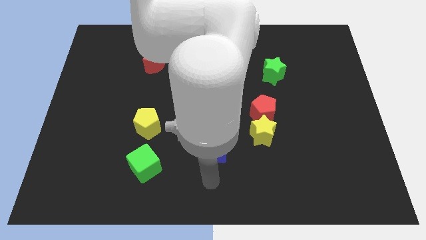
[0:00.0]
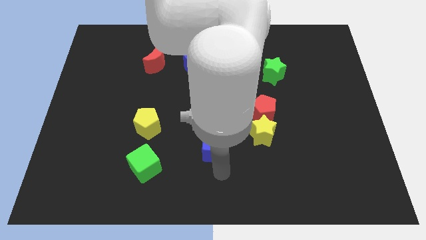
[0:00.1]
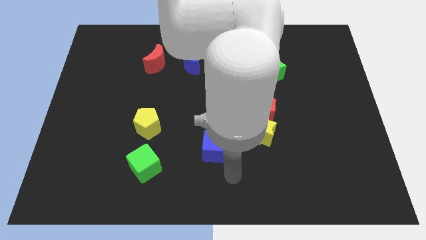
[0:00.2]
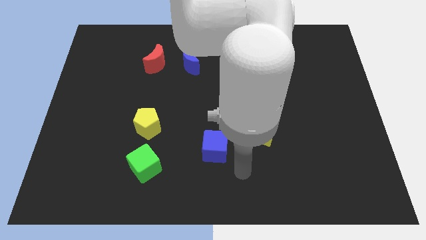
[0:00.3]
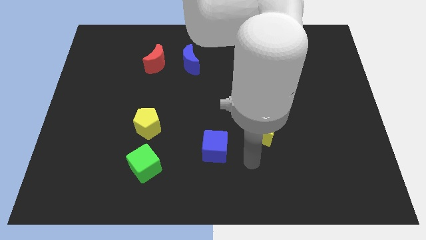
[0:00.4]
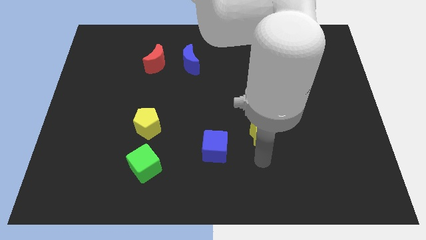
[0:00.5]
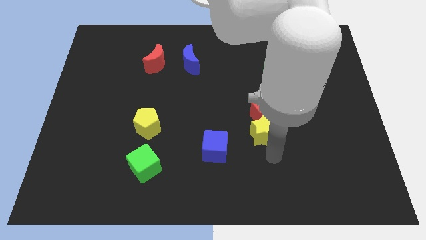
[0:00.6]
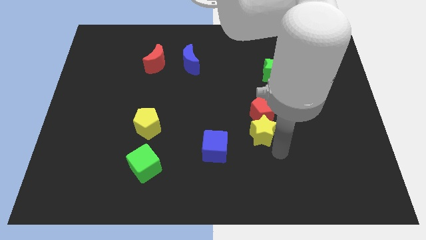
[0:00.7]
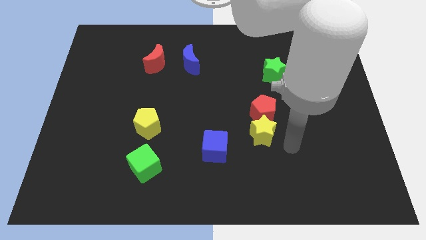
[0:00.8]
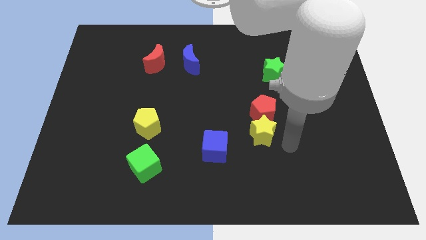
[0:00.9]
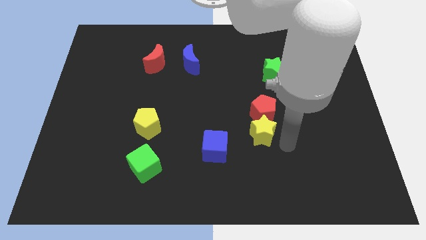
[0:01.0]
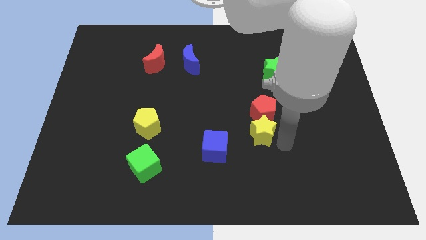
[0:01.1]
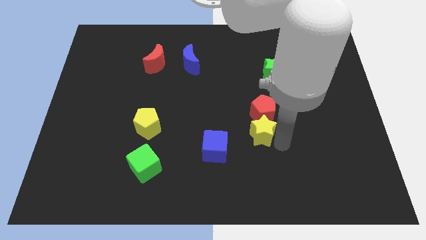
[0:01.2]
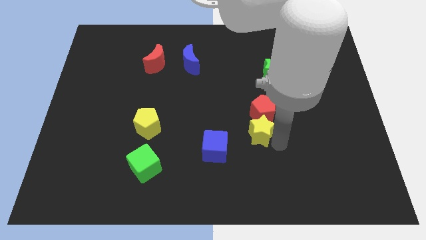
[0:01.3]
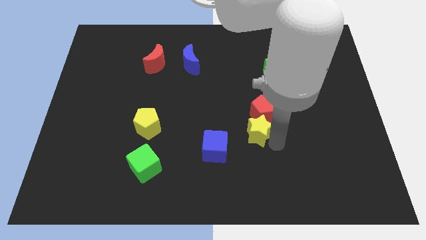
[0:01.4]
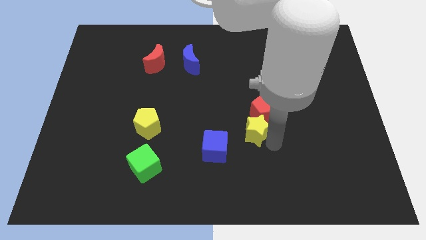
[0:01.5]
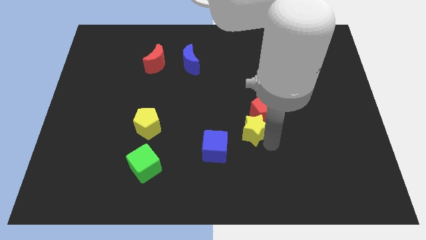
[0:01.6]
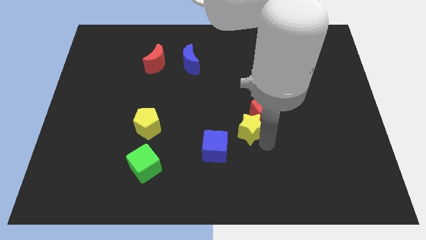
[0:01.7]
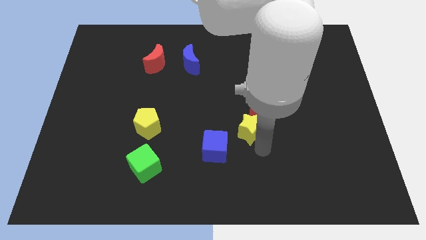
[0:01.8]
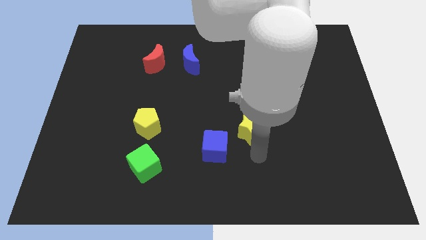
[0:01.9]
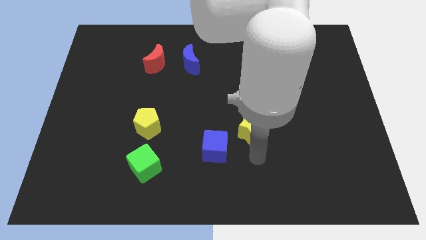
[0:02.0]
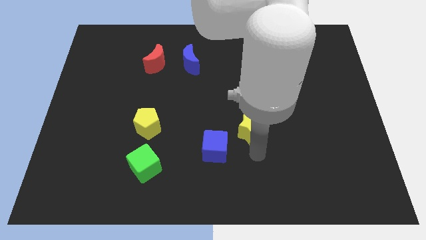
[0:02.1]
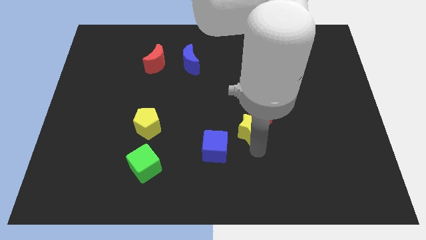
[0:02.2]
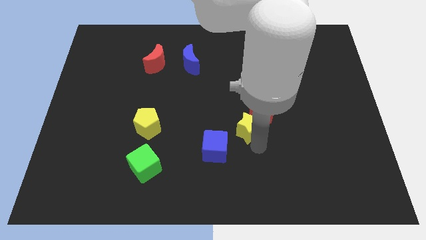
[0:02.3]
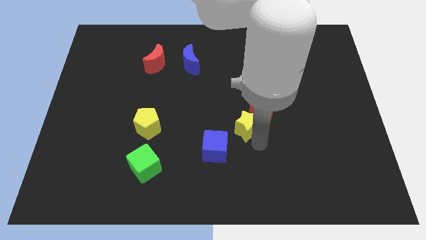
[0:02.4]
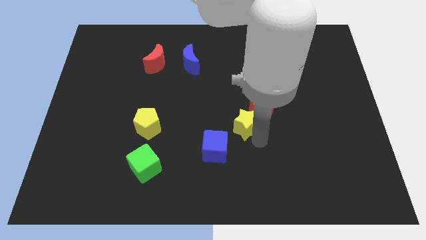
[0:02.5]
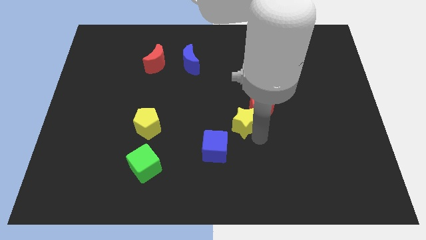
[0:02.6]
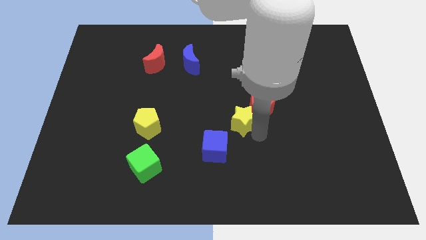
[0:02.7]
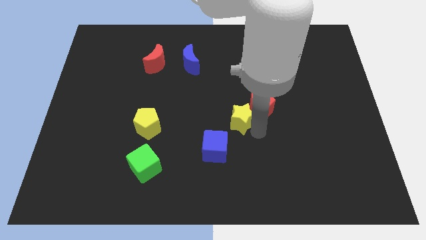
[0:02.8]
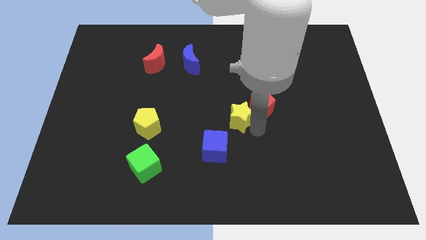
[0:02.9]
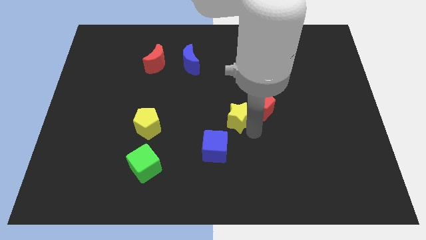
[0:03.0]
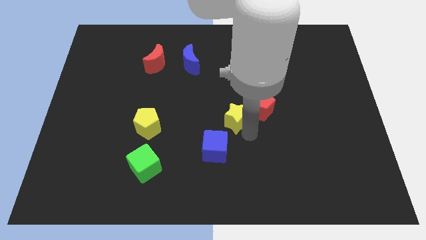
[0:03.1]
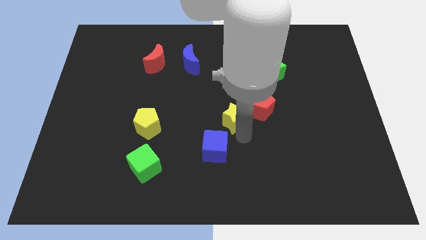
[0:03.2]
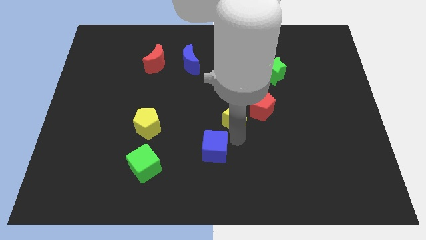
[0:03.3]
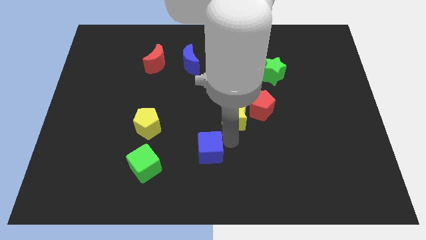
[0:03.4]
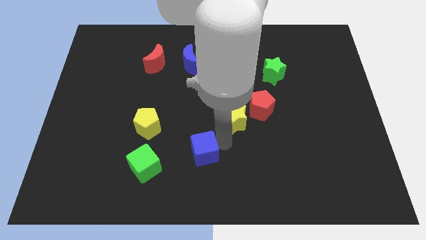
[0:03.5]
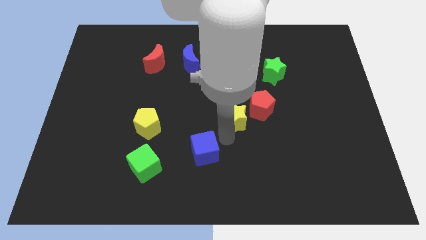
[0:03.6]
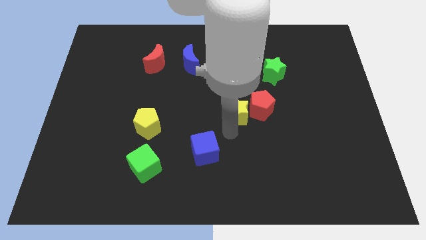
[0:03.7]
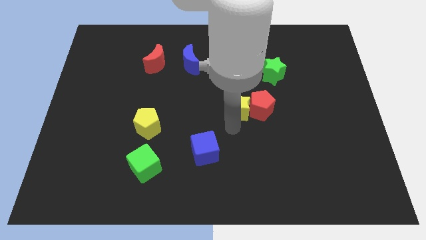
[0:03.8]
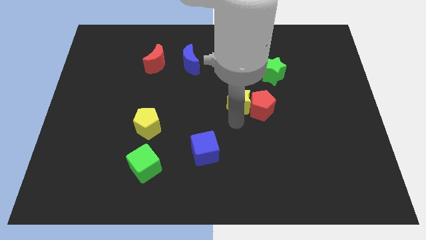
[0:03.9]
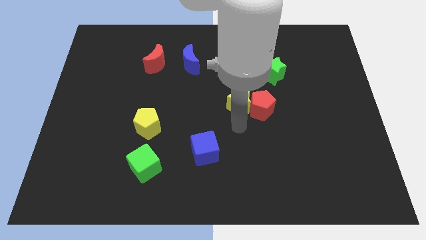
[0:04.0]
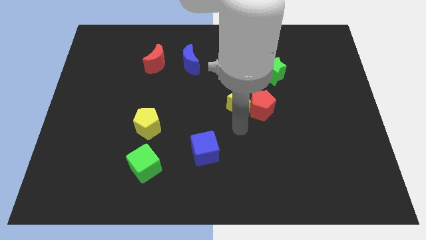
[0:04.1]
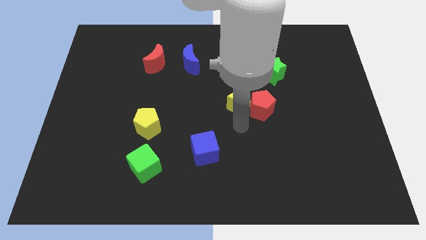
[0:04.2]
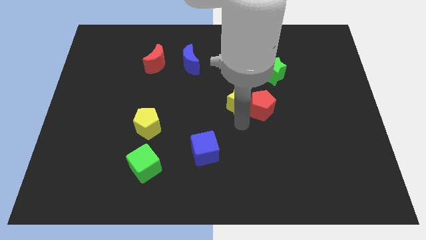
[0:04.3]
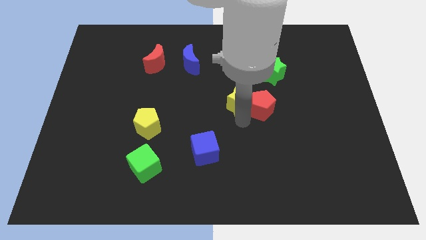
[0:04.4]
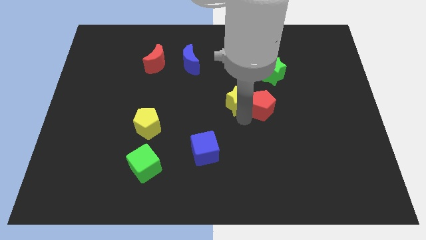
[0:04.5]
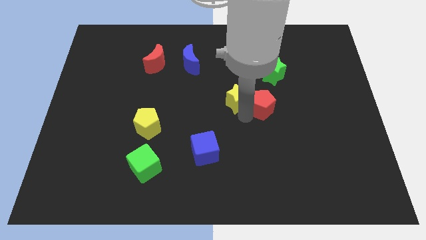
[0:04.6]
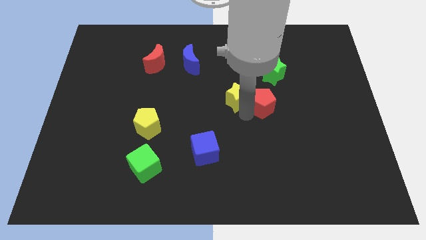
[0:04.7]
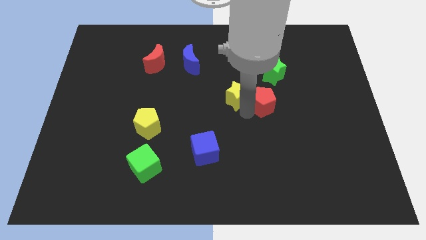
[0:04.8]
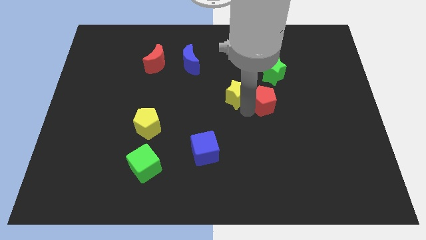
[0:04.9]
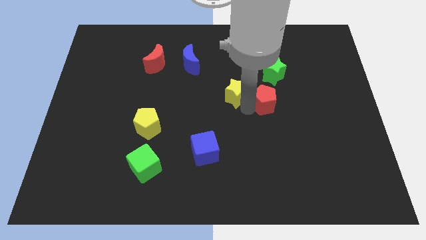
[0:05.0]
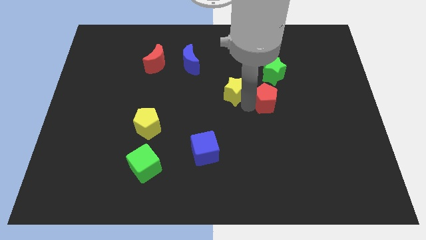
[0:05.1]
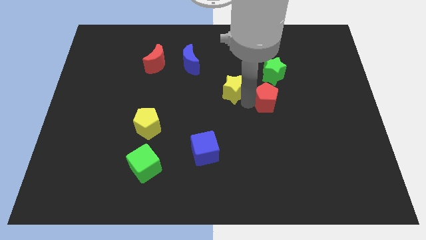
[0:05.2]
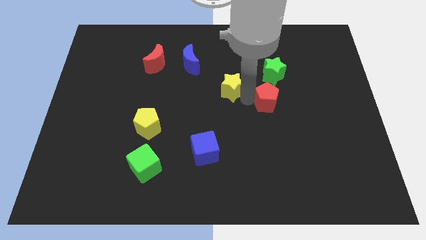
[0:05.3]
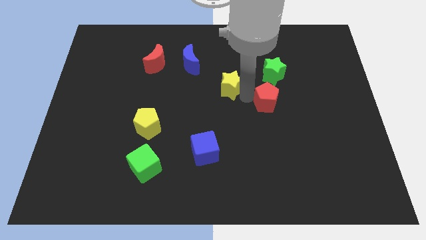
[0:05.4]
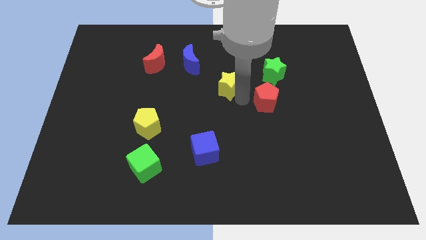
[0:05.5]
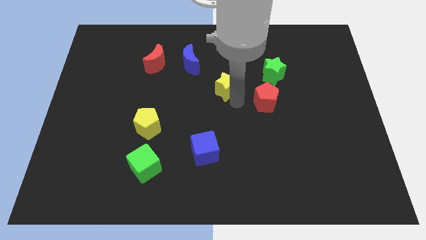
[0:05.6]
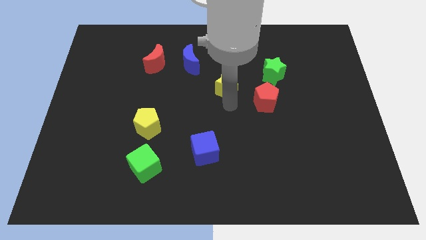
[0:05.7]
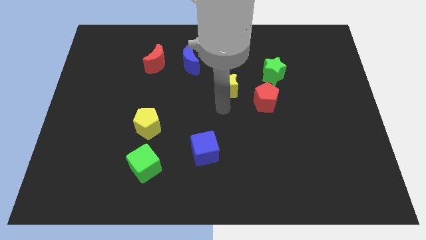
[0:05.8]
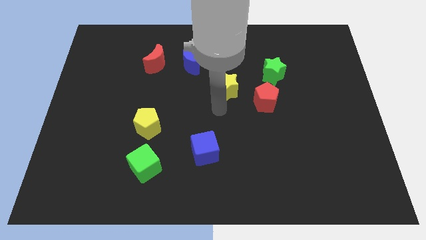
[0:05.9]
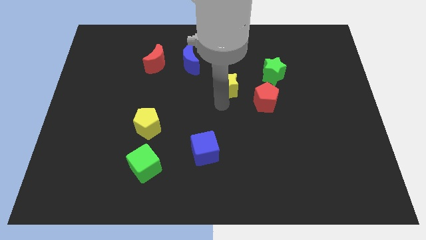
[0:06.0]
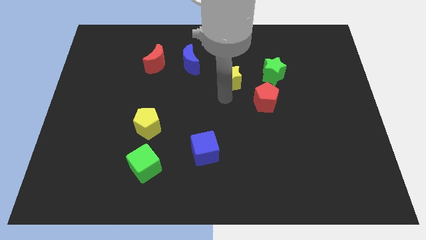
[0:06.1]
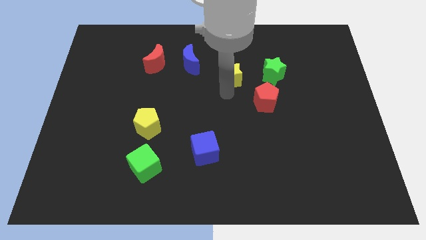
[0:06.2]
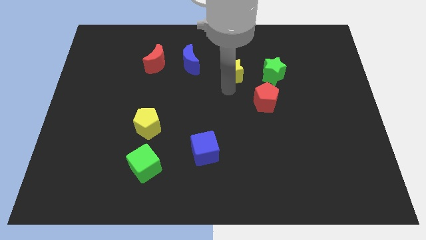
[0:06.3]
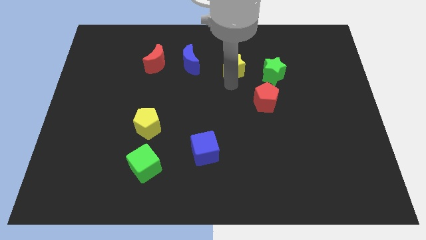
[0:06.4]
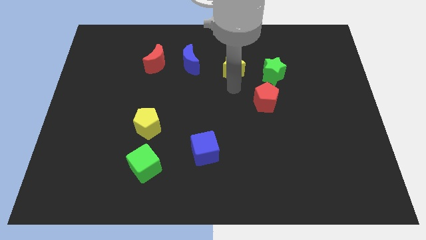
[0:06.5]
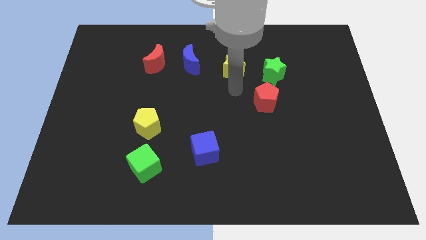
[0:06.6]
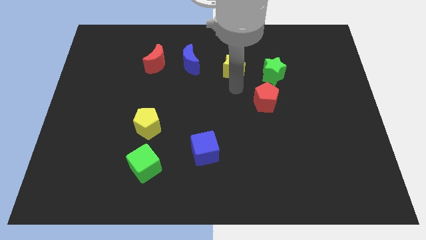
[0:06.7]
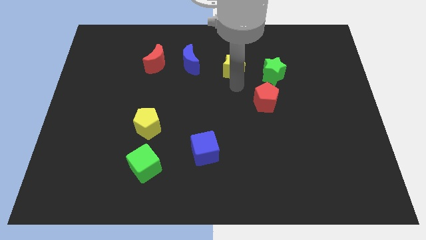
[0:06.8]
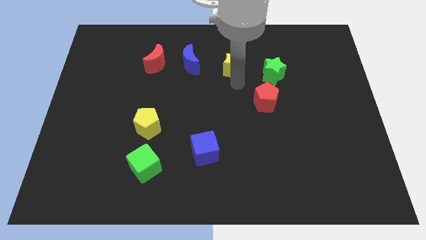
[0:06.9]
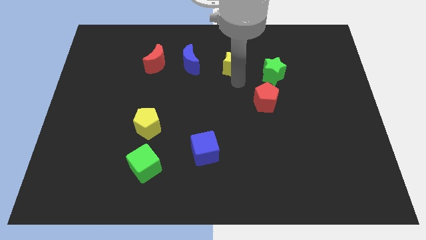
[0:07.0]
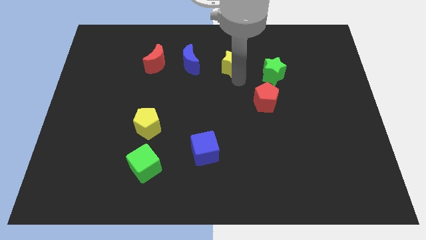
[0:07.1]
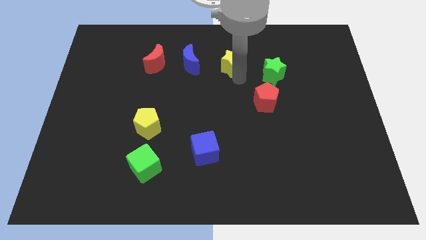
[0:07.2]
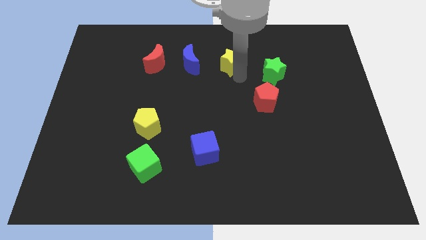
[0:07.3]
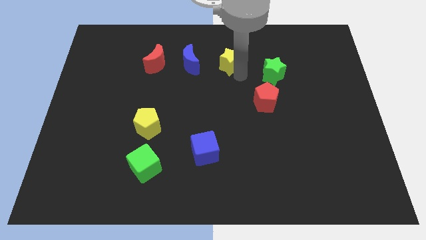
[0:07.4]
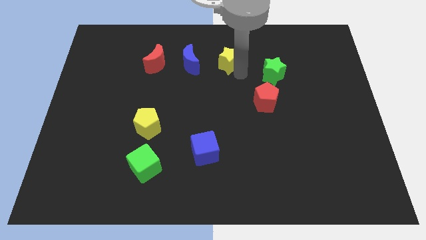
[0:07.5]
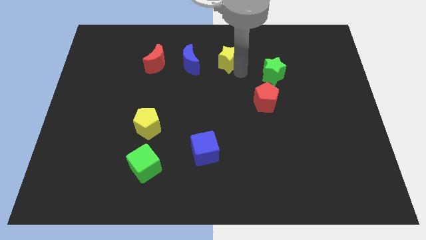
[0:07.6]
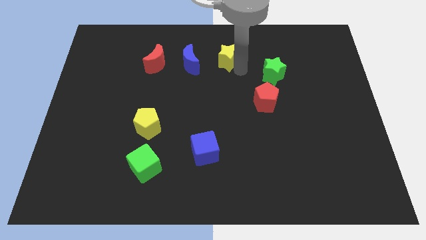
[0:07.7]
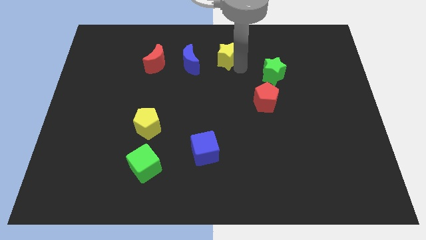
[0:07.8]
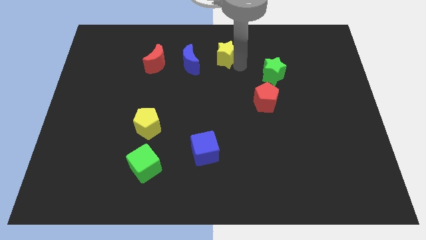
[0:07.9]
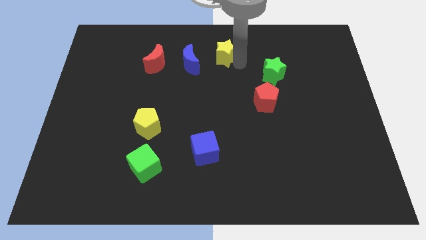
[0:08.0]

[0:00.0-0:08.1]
move the yellow star to the towards your base
